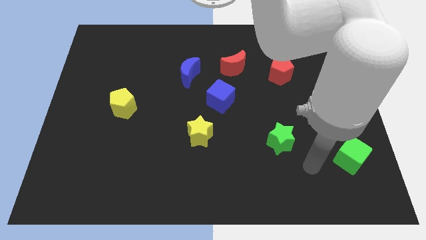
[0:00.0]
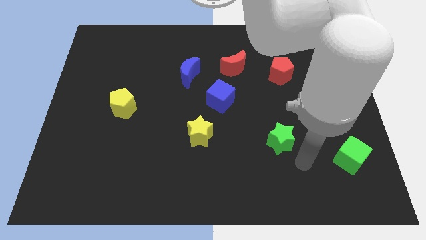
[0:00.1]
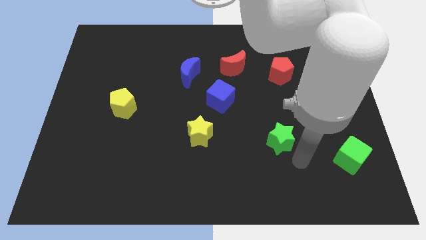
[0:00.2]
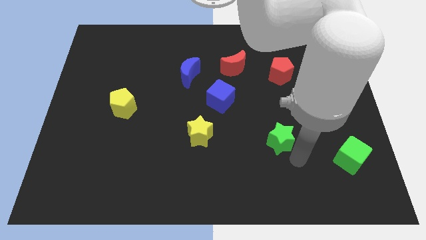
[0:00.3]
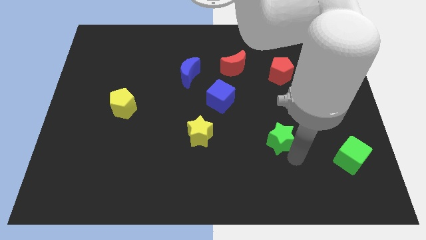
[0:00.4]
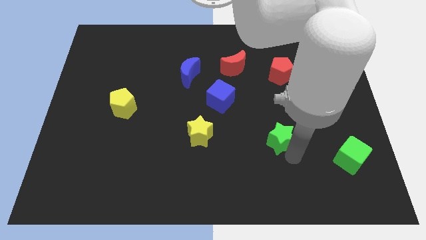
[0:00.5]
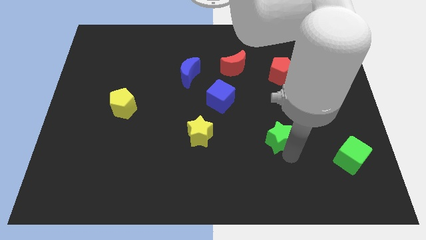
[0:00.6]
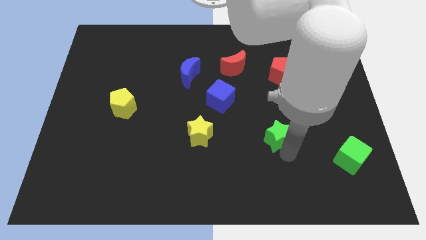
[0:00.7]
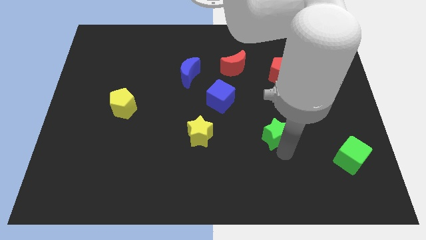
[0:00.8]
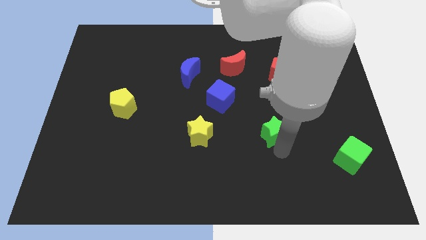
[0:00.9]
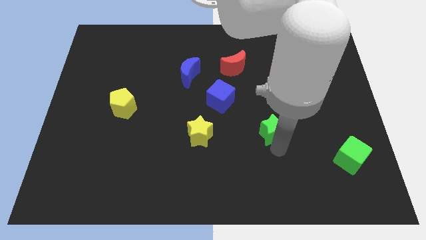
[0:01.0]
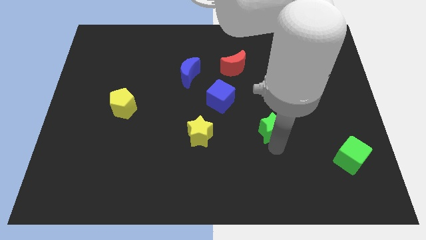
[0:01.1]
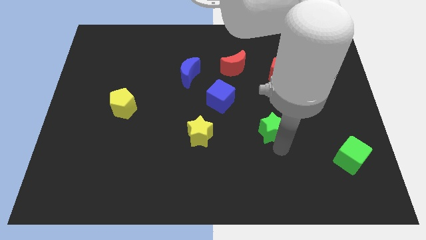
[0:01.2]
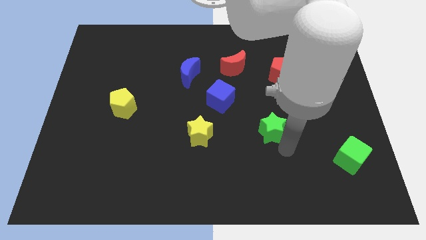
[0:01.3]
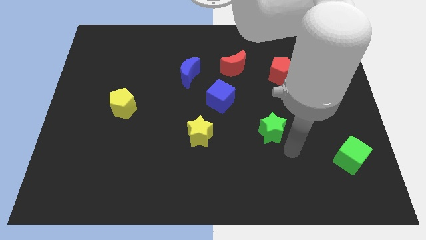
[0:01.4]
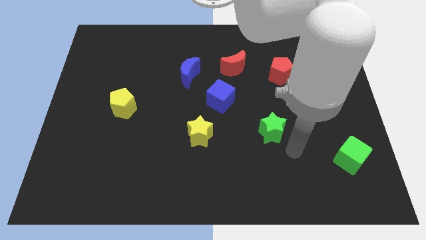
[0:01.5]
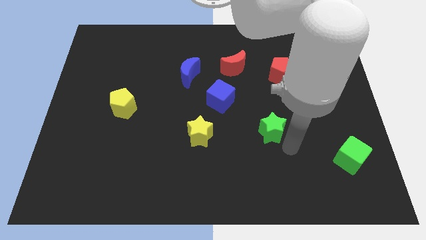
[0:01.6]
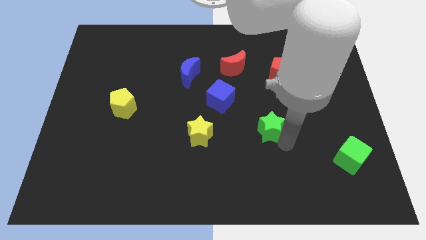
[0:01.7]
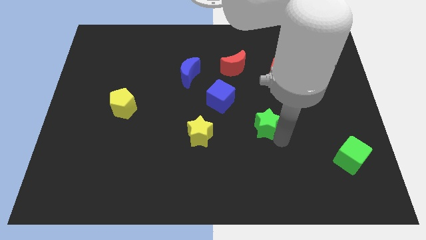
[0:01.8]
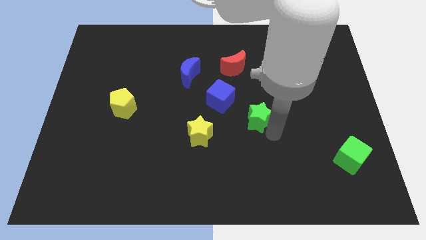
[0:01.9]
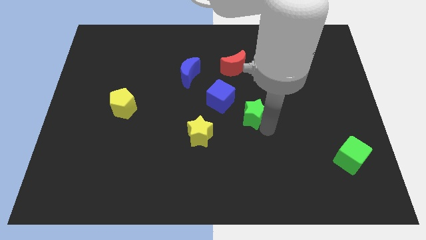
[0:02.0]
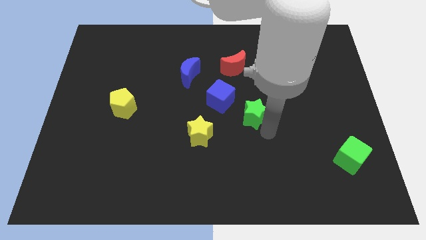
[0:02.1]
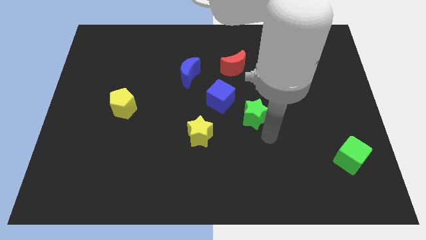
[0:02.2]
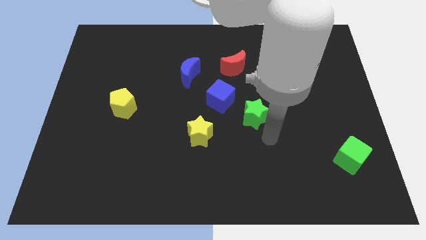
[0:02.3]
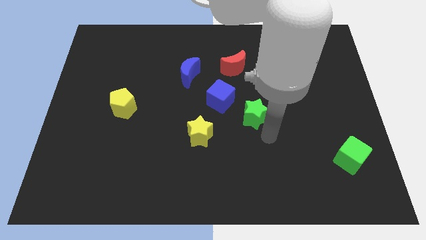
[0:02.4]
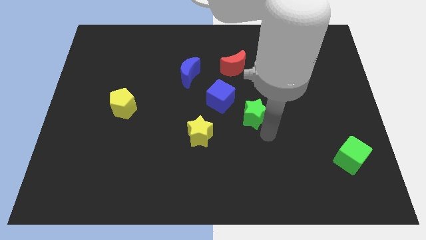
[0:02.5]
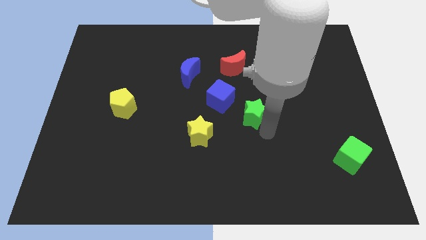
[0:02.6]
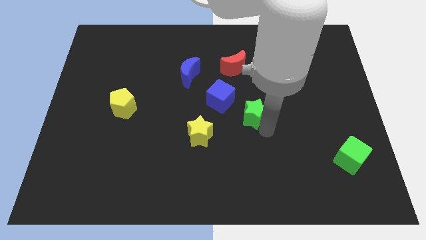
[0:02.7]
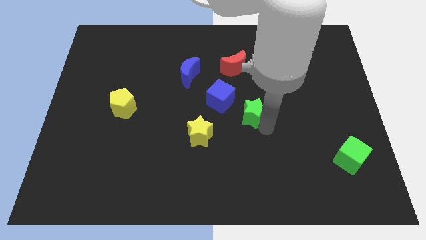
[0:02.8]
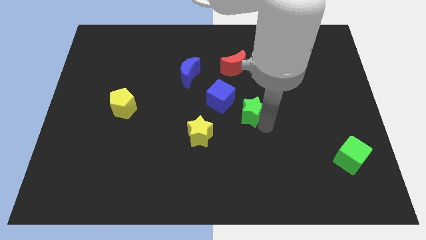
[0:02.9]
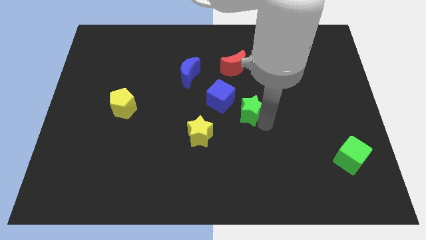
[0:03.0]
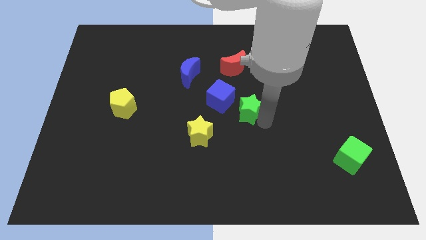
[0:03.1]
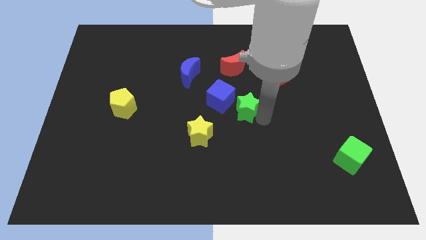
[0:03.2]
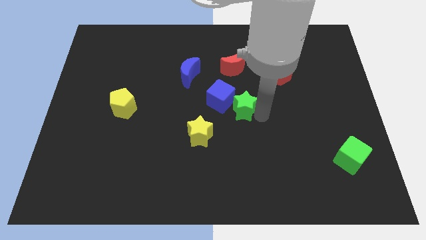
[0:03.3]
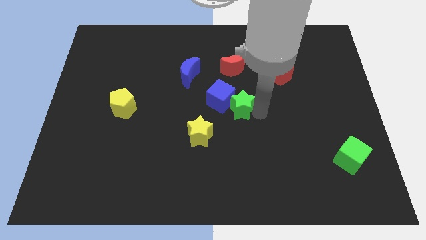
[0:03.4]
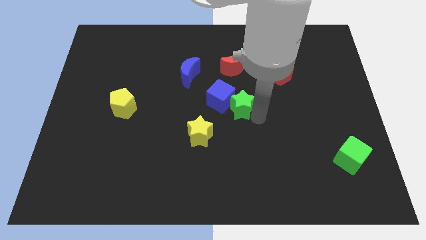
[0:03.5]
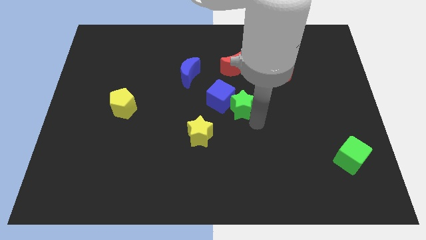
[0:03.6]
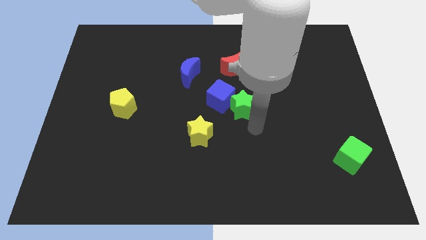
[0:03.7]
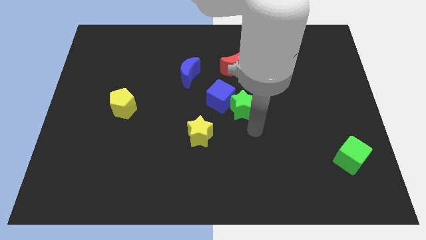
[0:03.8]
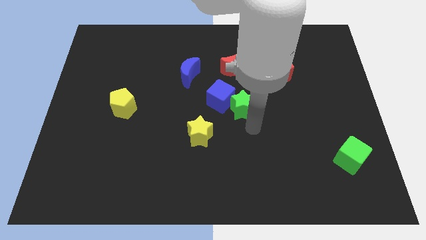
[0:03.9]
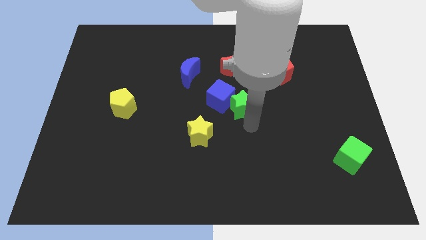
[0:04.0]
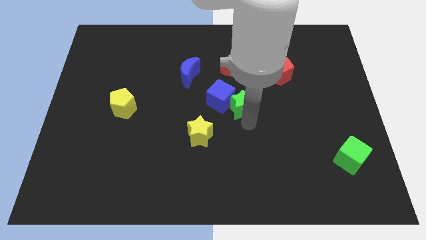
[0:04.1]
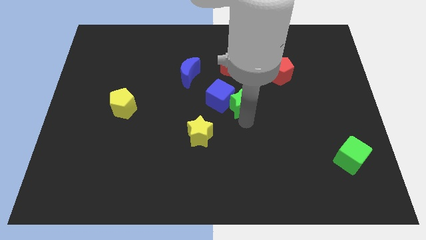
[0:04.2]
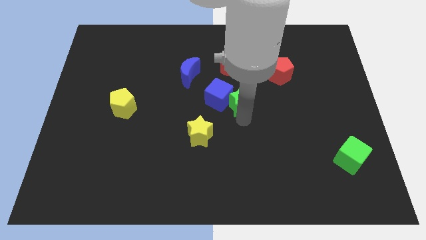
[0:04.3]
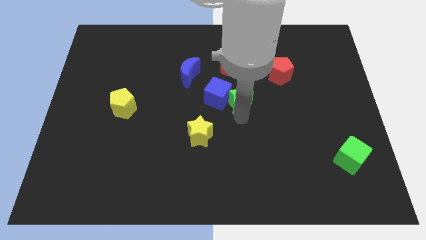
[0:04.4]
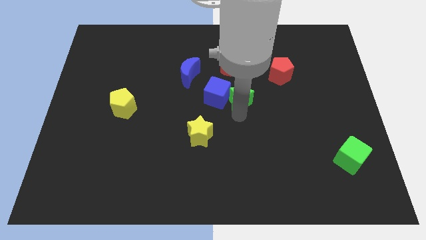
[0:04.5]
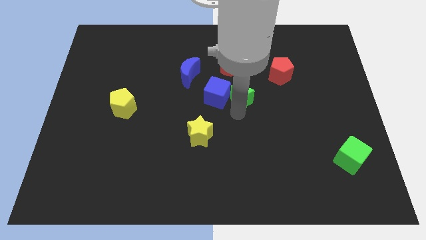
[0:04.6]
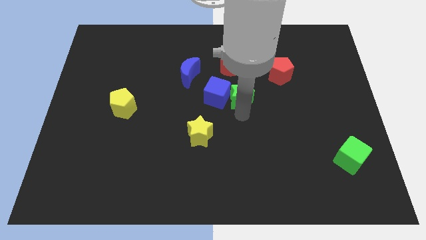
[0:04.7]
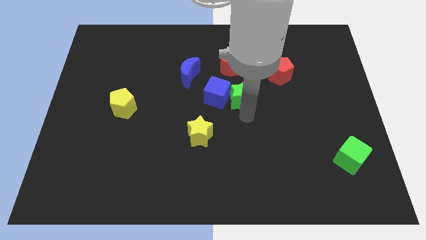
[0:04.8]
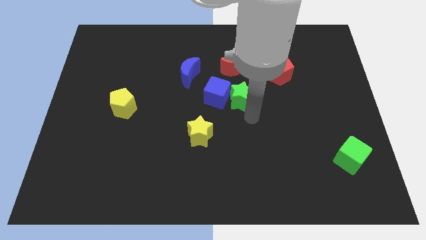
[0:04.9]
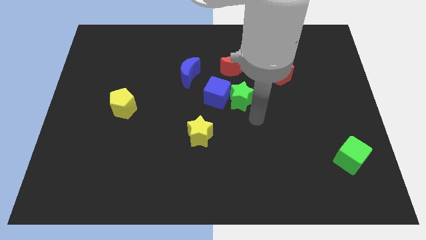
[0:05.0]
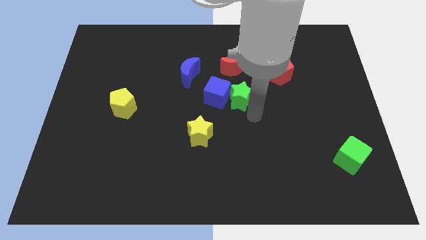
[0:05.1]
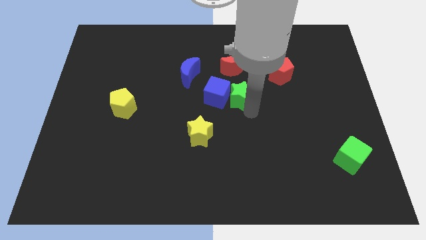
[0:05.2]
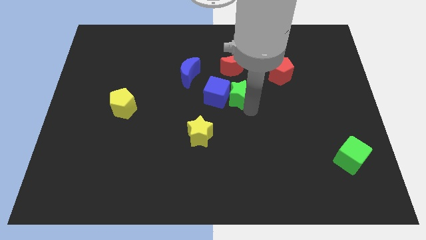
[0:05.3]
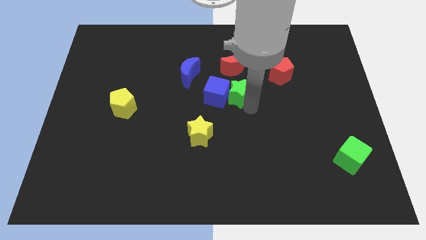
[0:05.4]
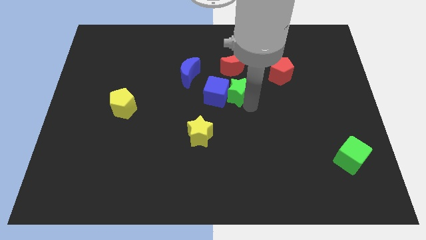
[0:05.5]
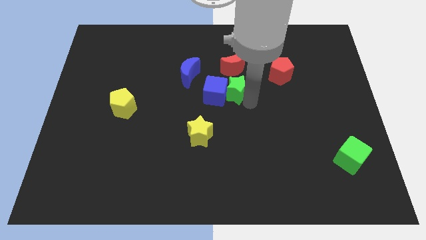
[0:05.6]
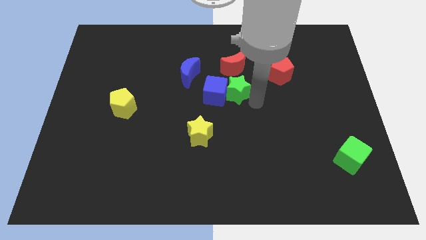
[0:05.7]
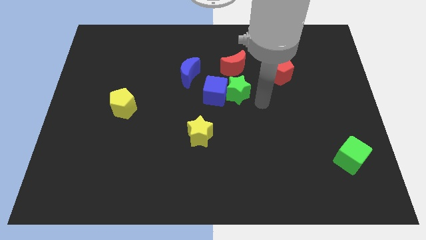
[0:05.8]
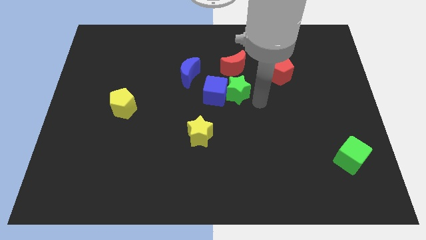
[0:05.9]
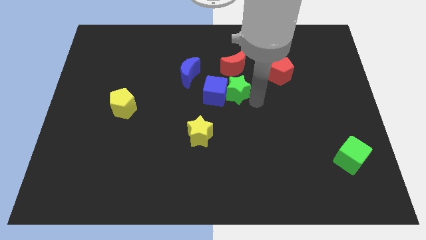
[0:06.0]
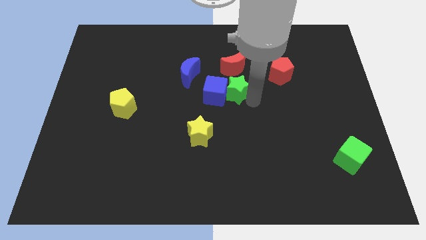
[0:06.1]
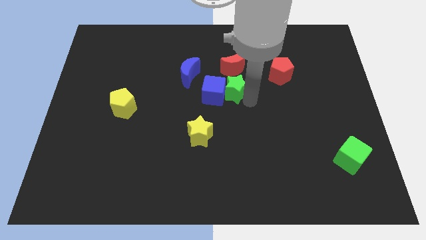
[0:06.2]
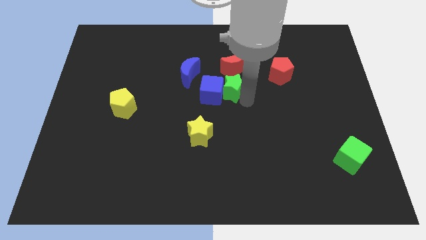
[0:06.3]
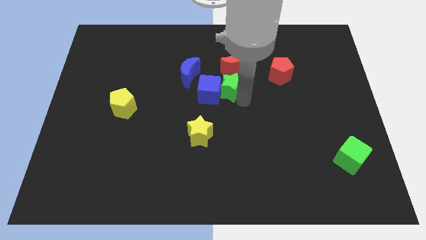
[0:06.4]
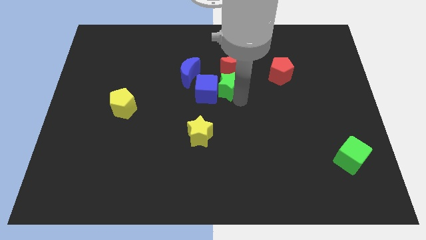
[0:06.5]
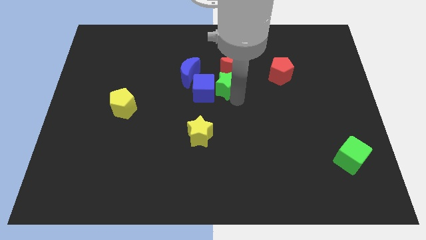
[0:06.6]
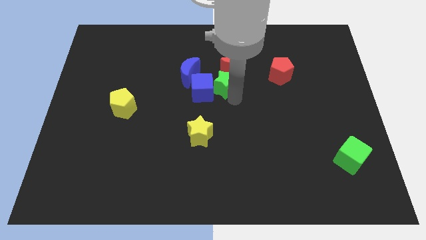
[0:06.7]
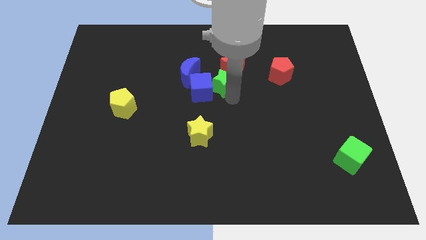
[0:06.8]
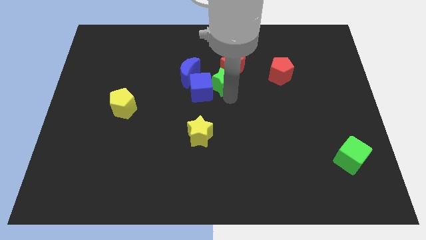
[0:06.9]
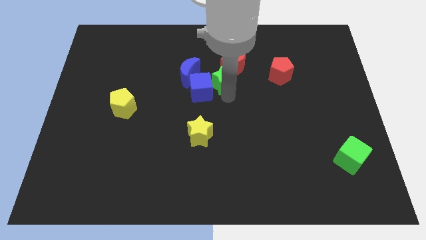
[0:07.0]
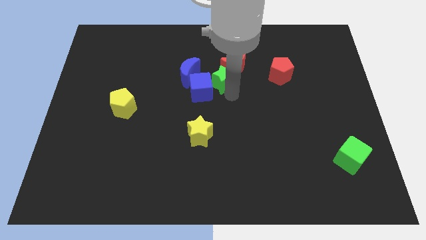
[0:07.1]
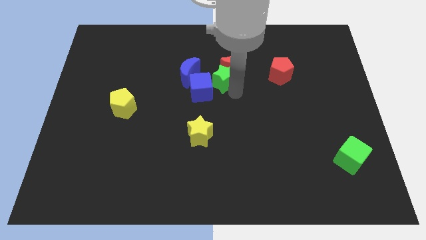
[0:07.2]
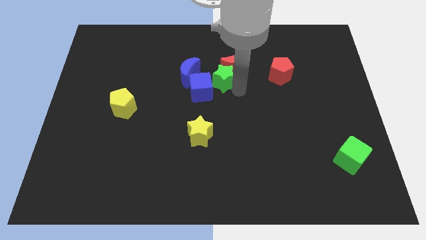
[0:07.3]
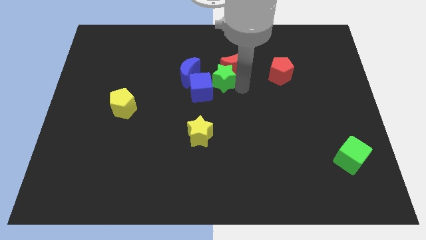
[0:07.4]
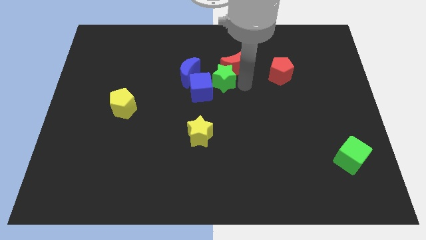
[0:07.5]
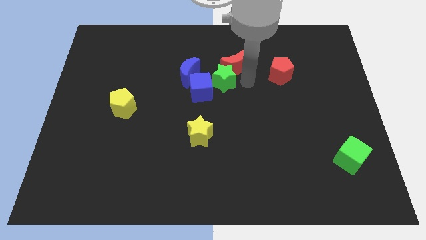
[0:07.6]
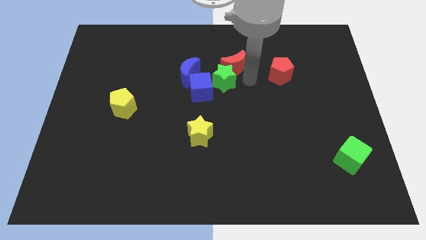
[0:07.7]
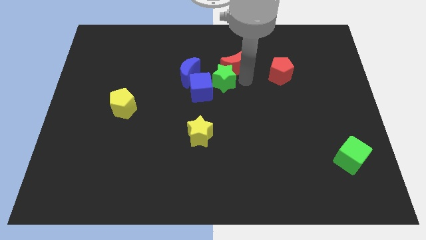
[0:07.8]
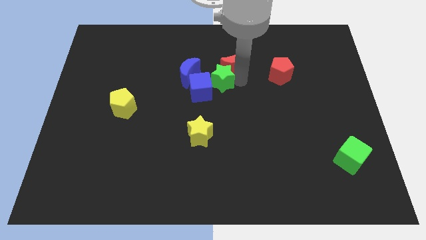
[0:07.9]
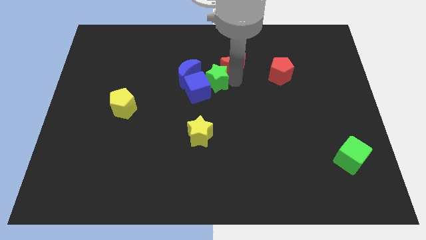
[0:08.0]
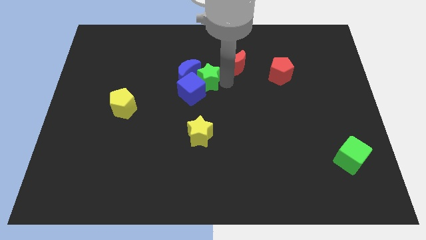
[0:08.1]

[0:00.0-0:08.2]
put the green star close to the blue moon
